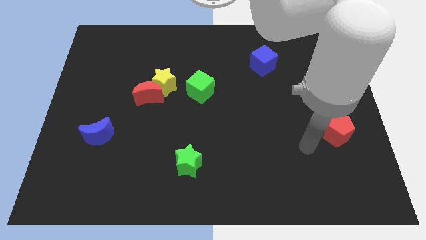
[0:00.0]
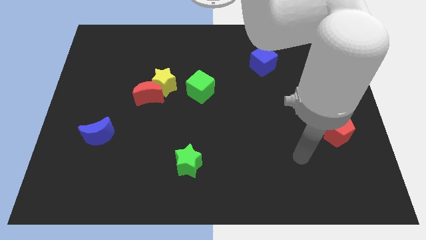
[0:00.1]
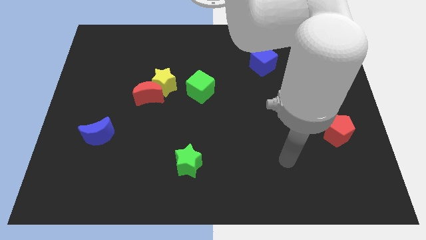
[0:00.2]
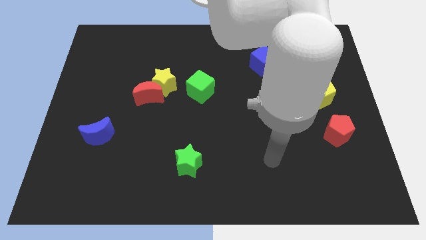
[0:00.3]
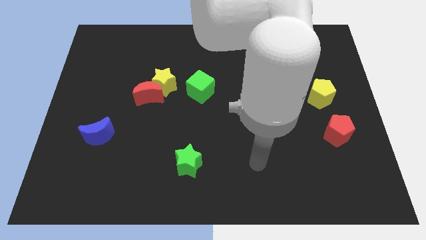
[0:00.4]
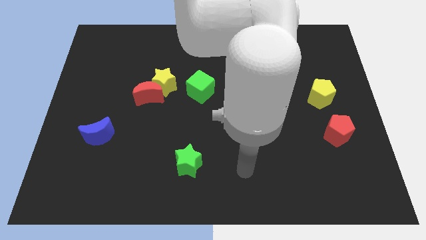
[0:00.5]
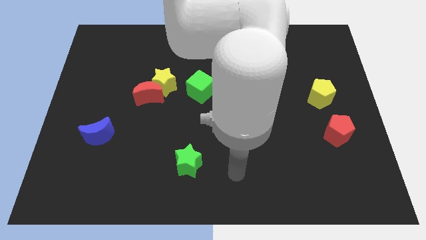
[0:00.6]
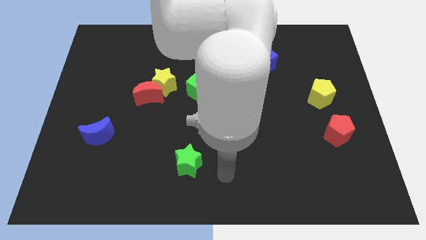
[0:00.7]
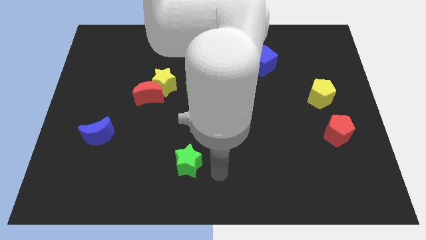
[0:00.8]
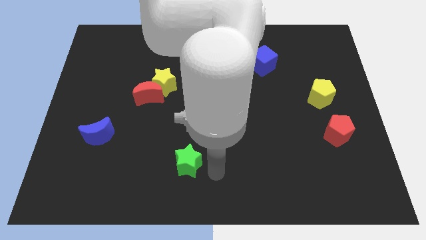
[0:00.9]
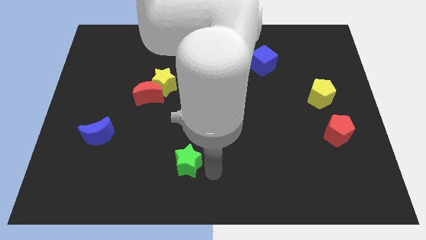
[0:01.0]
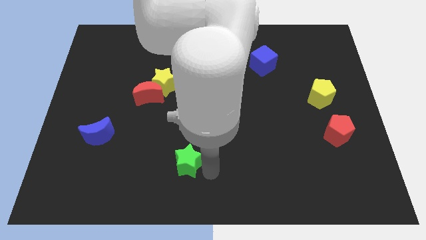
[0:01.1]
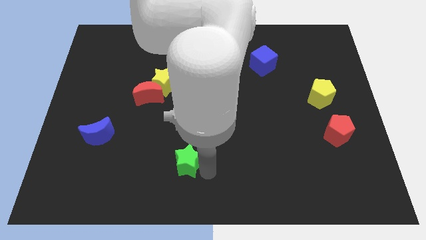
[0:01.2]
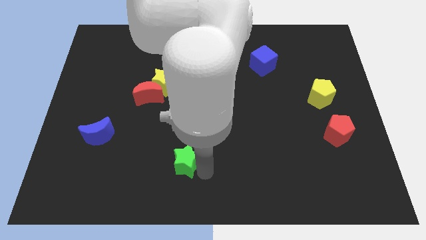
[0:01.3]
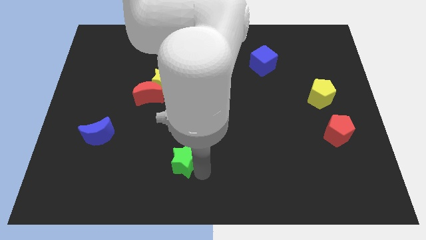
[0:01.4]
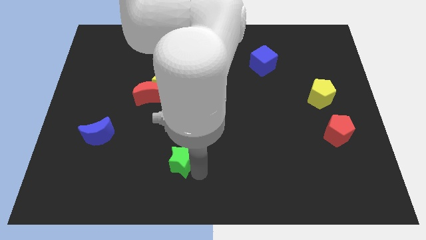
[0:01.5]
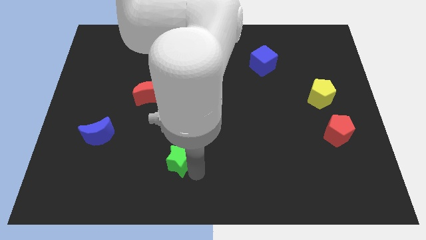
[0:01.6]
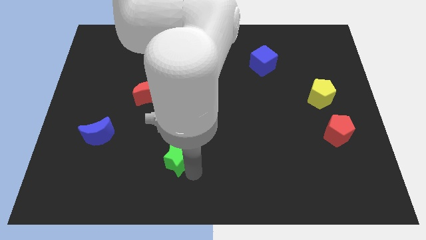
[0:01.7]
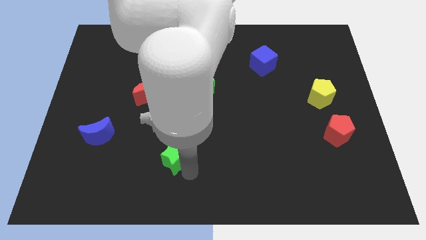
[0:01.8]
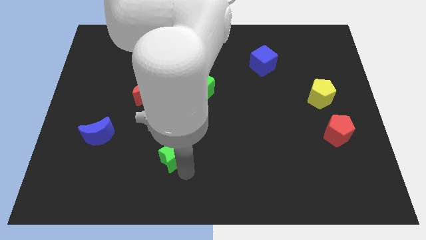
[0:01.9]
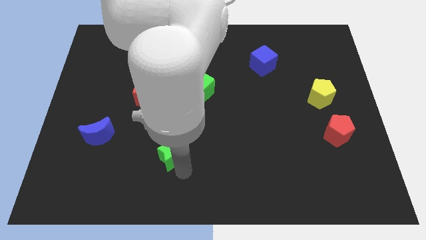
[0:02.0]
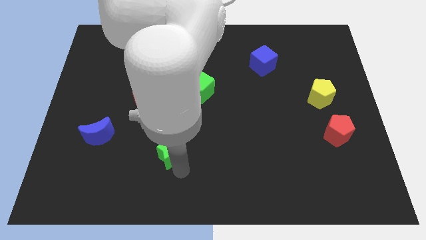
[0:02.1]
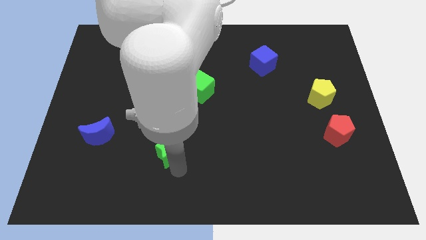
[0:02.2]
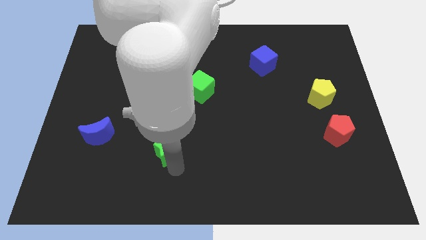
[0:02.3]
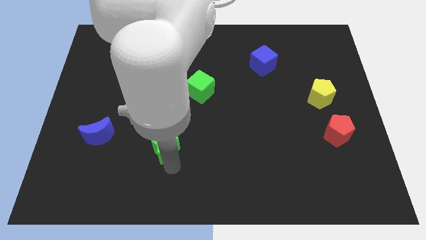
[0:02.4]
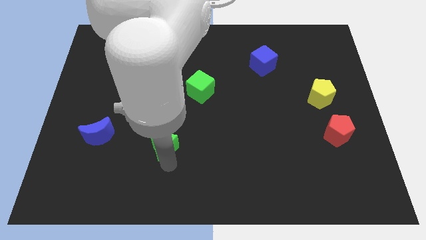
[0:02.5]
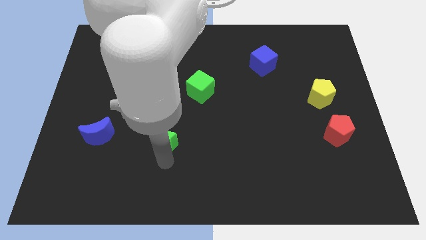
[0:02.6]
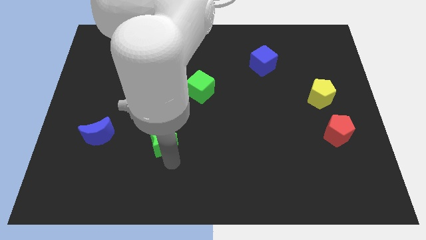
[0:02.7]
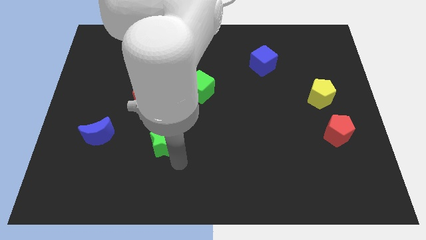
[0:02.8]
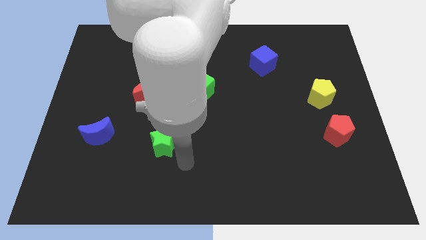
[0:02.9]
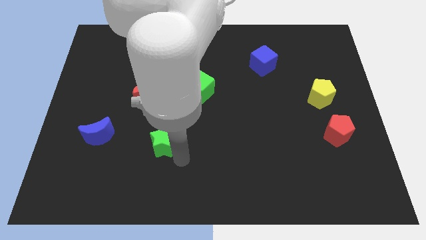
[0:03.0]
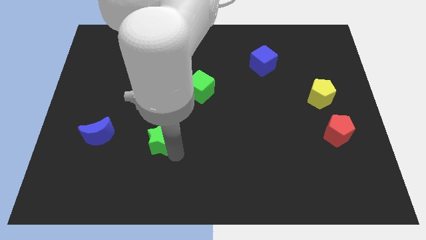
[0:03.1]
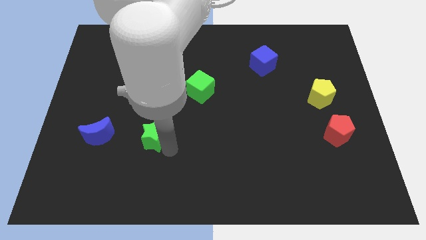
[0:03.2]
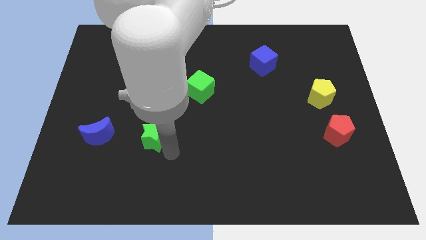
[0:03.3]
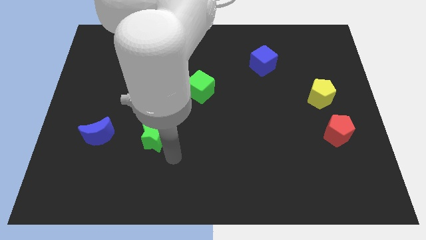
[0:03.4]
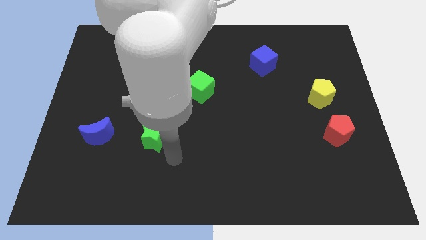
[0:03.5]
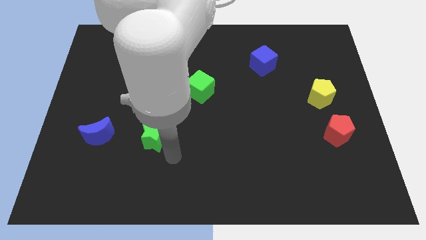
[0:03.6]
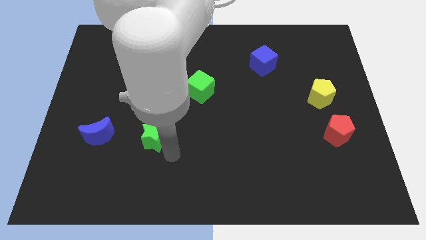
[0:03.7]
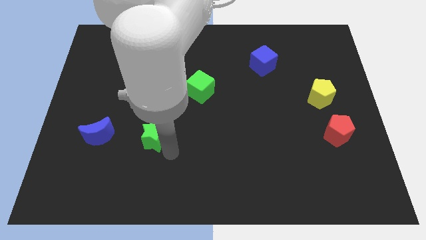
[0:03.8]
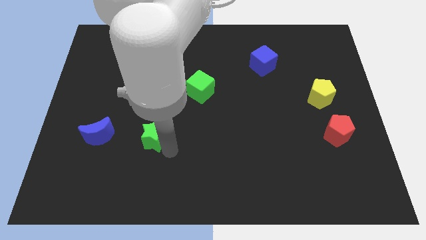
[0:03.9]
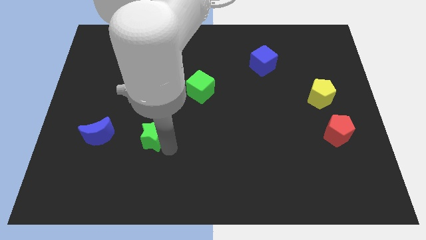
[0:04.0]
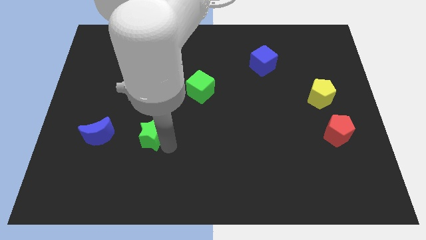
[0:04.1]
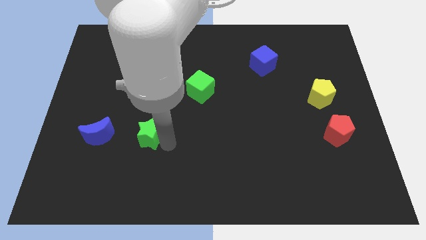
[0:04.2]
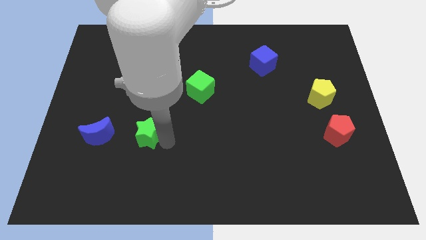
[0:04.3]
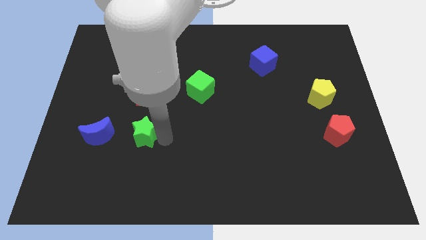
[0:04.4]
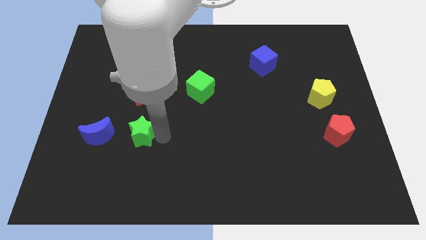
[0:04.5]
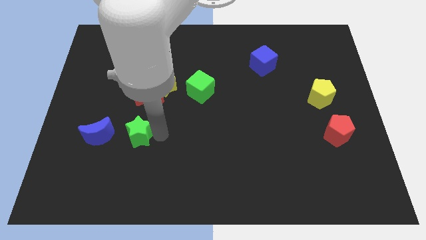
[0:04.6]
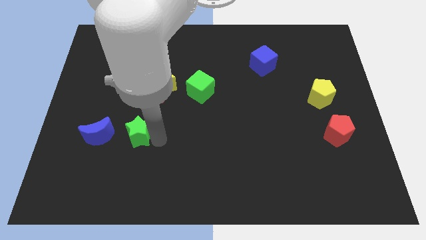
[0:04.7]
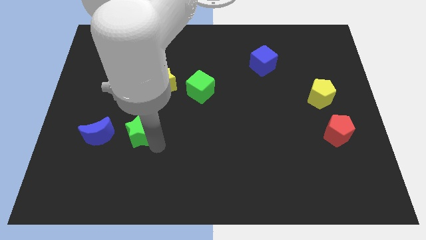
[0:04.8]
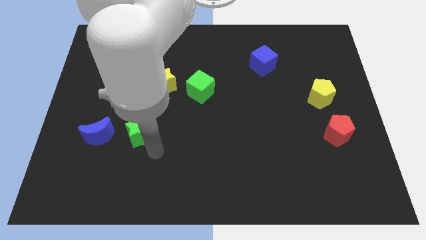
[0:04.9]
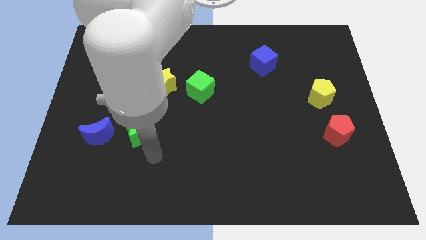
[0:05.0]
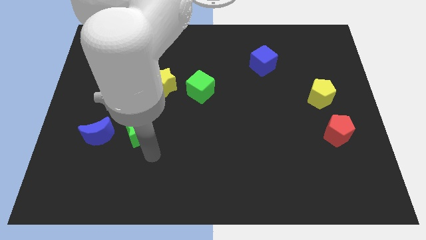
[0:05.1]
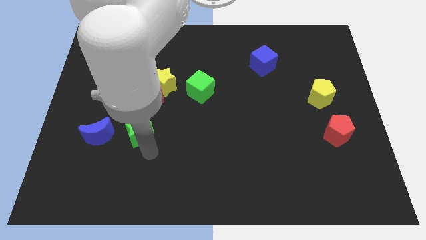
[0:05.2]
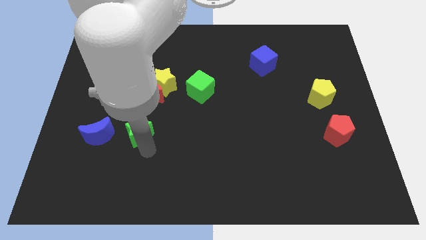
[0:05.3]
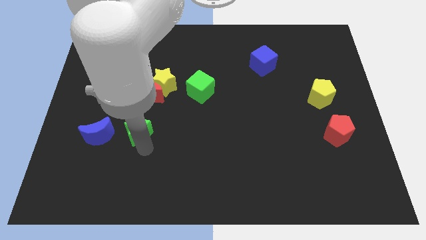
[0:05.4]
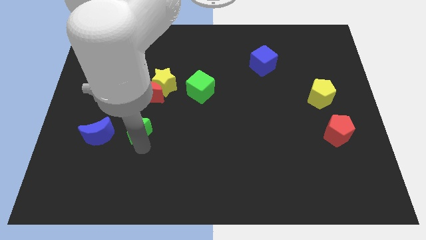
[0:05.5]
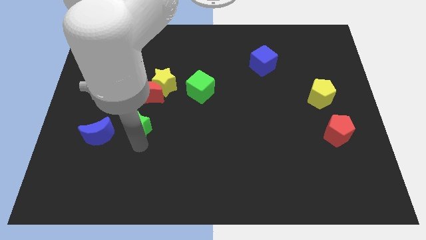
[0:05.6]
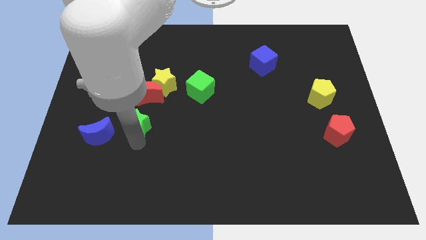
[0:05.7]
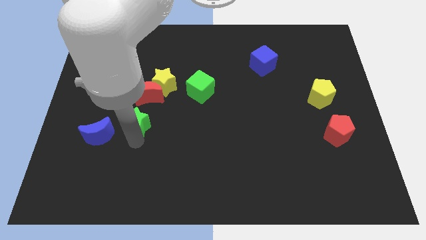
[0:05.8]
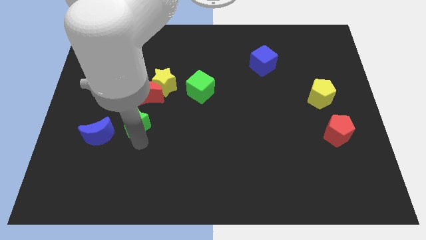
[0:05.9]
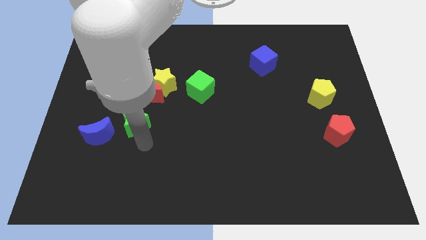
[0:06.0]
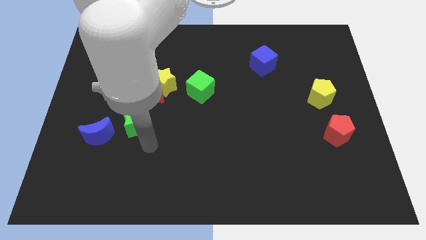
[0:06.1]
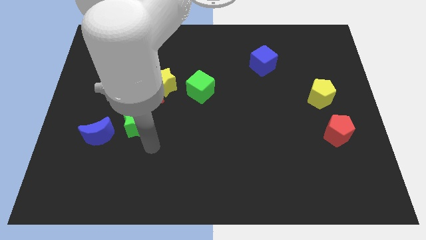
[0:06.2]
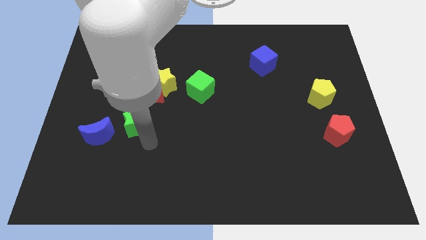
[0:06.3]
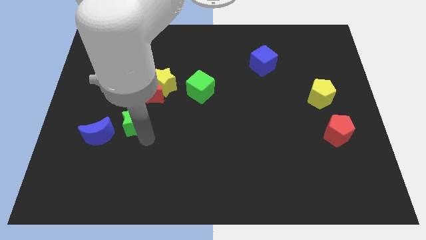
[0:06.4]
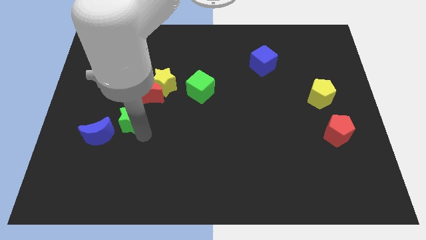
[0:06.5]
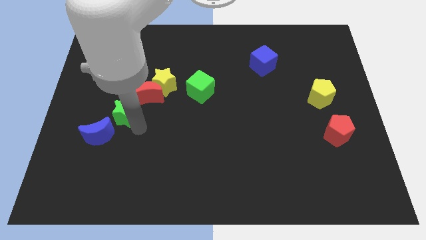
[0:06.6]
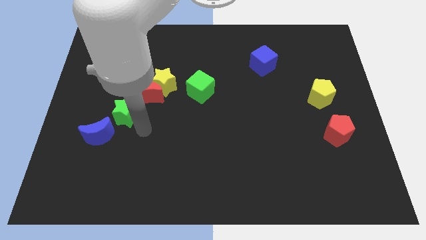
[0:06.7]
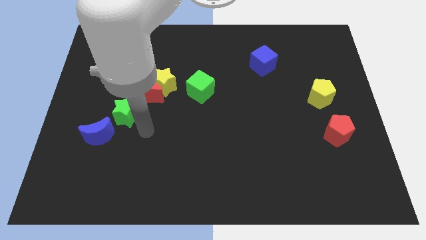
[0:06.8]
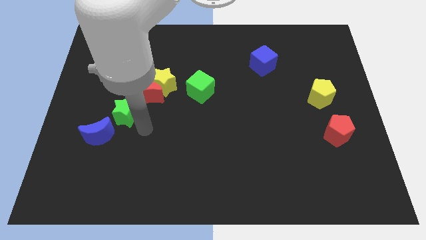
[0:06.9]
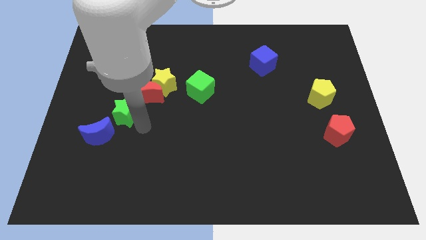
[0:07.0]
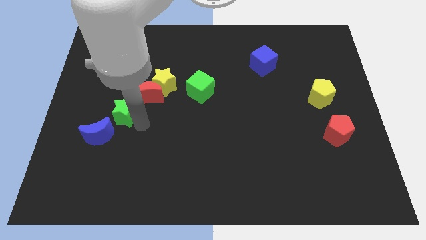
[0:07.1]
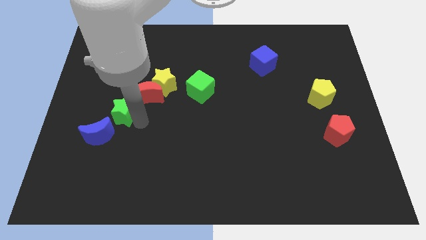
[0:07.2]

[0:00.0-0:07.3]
put the green star to the top of the blue moon
